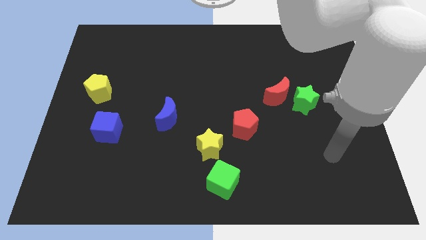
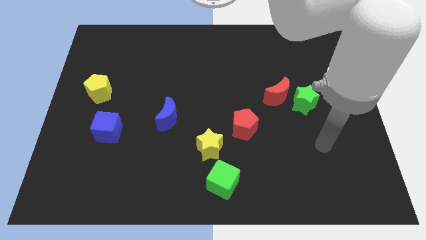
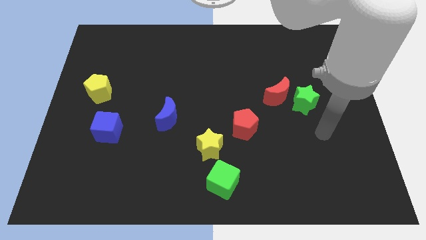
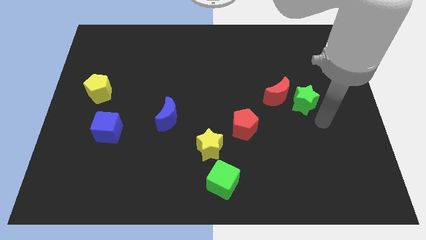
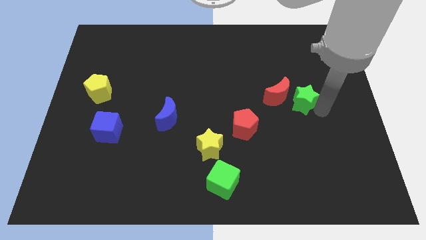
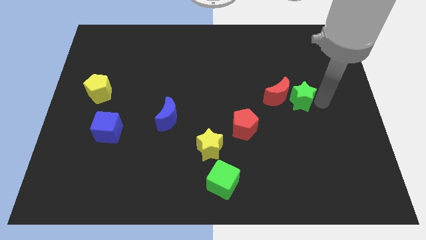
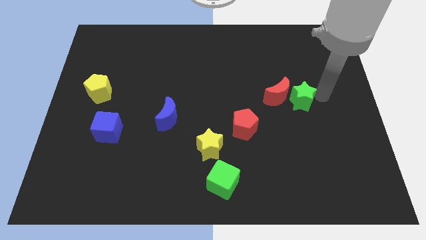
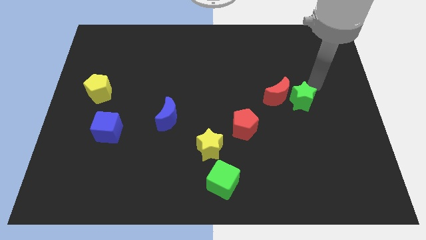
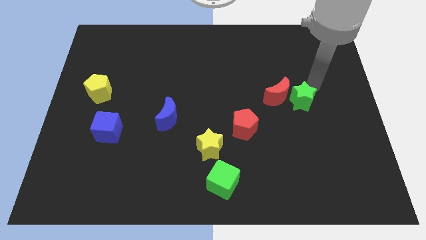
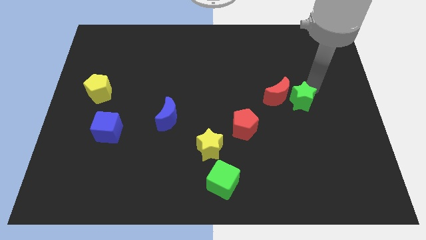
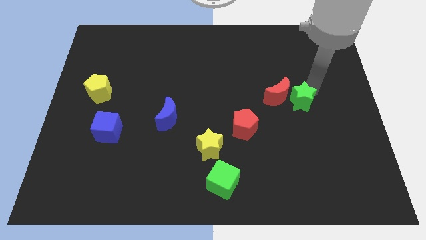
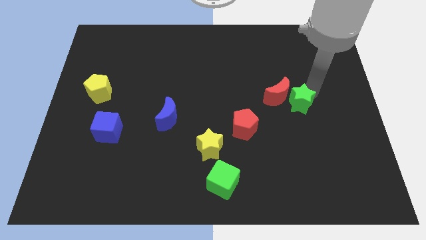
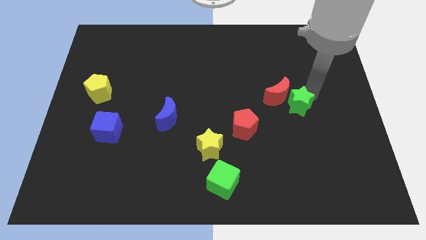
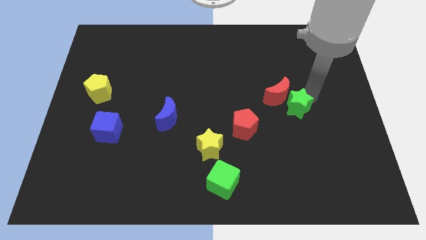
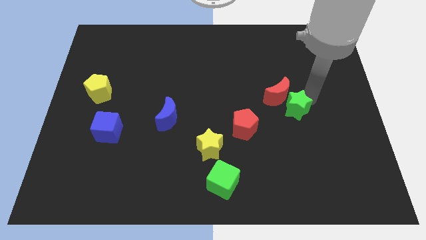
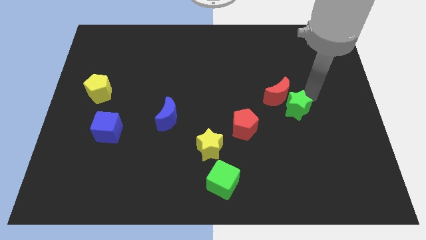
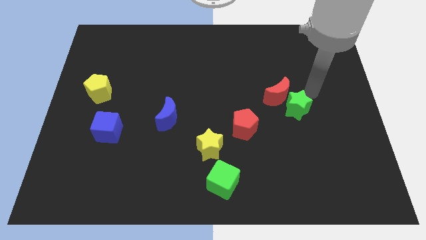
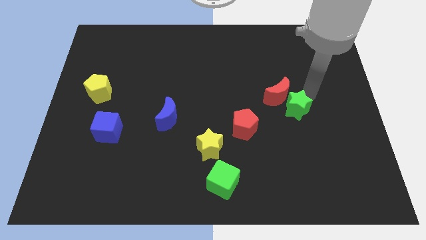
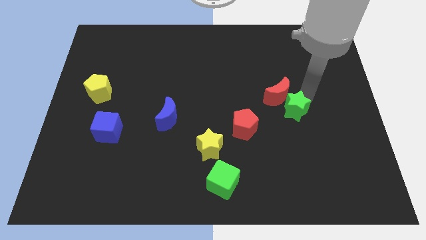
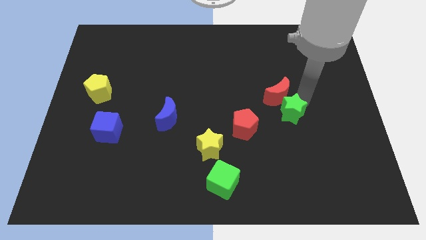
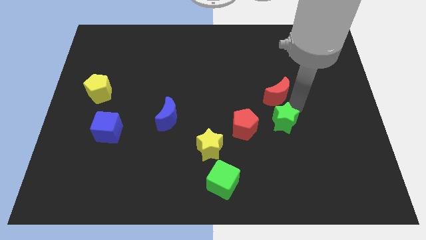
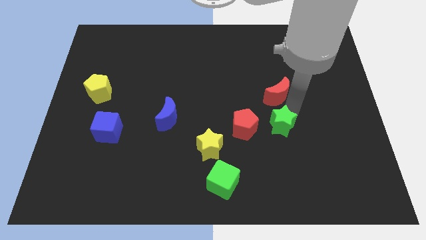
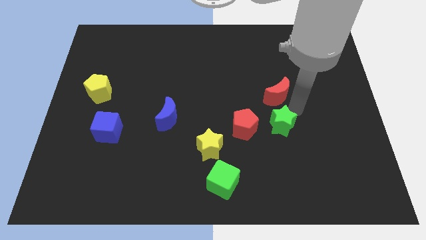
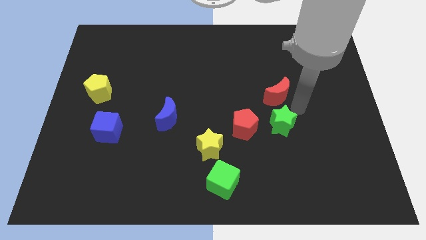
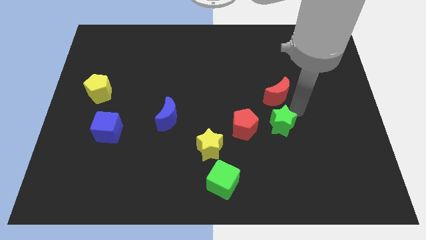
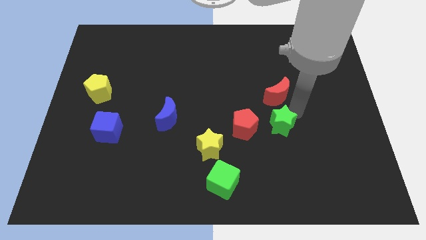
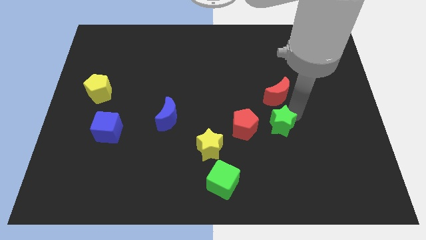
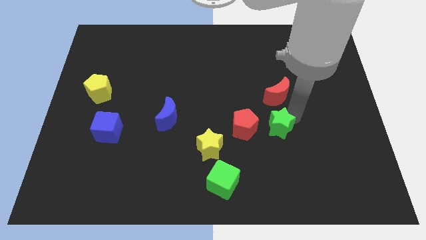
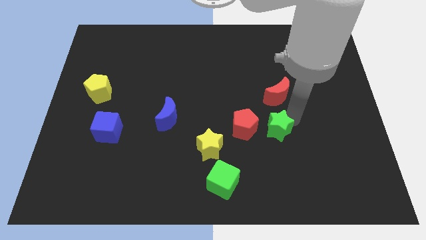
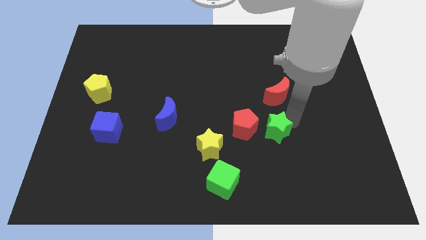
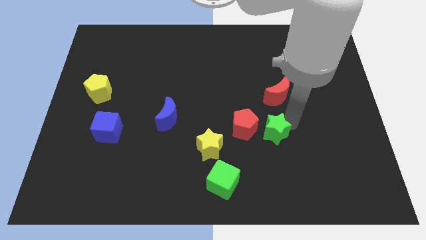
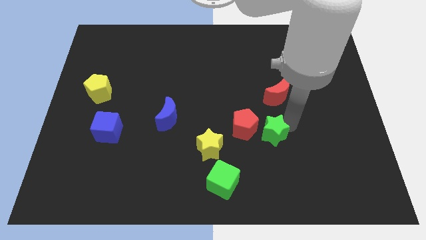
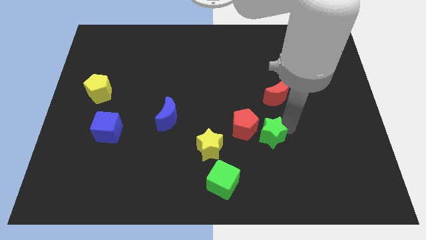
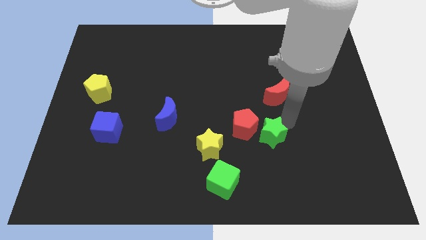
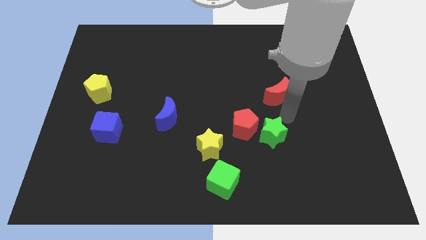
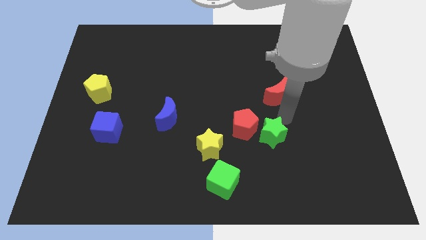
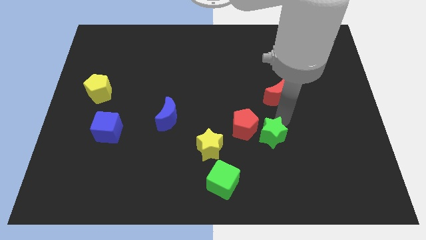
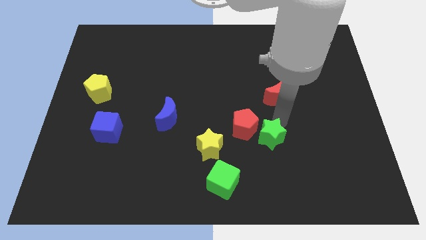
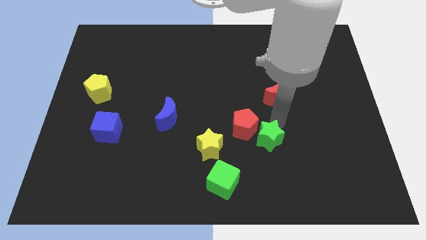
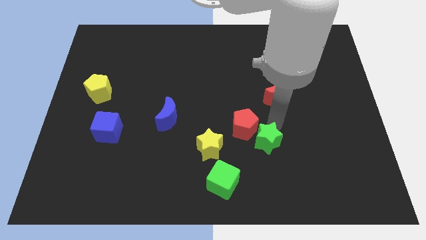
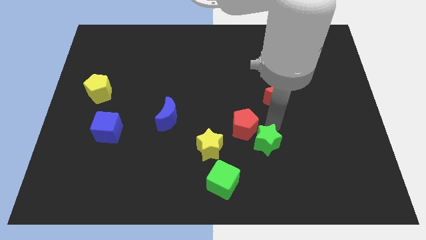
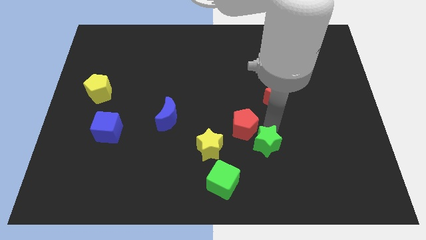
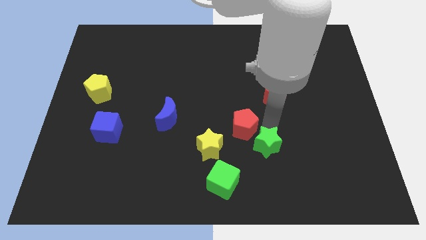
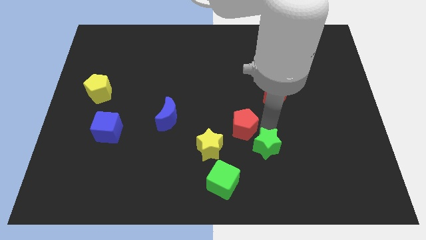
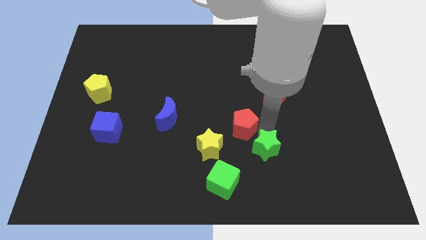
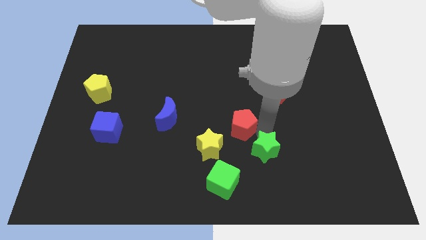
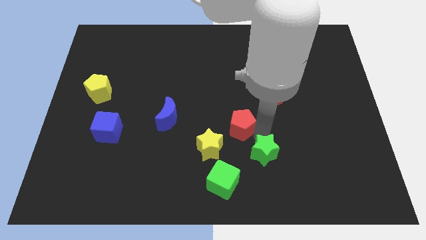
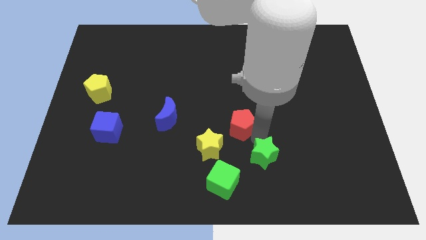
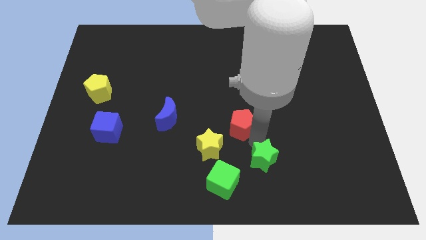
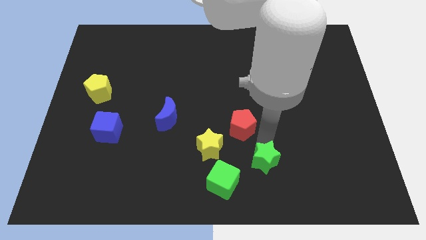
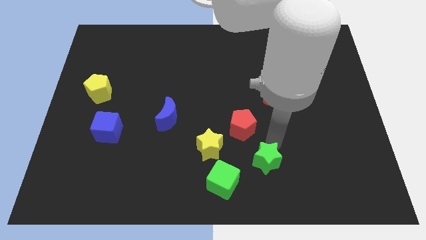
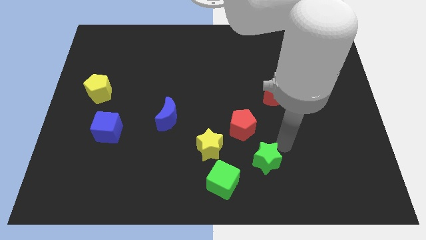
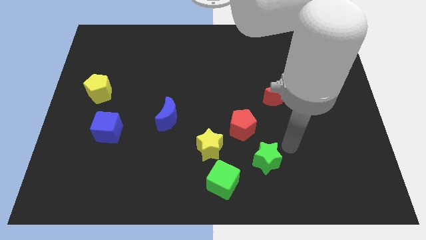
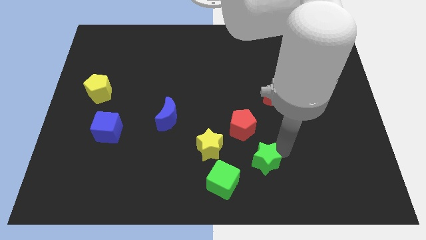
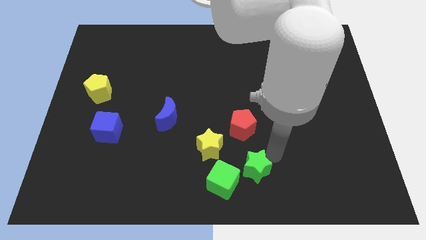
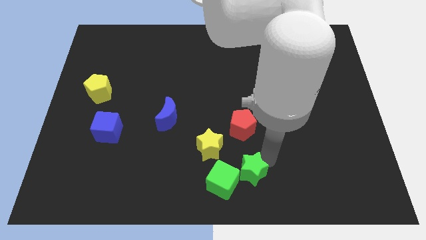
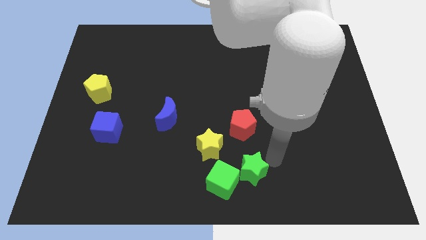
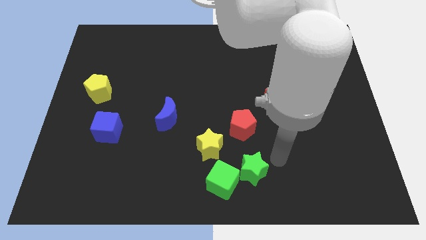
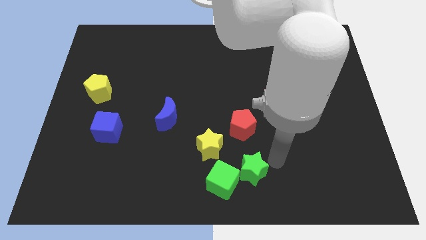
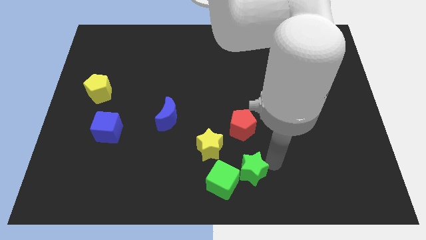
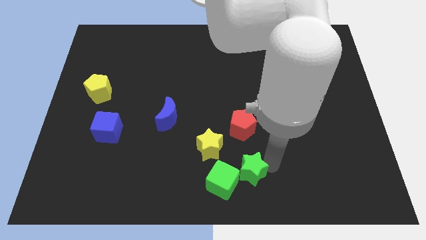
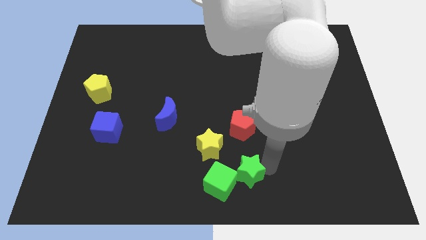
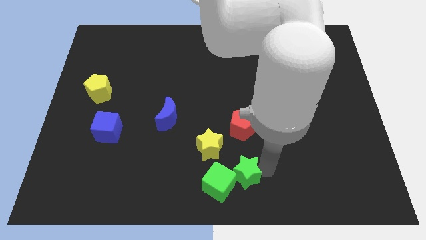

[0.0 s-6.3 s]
slide the green star next to the green cube

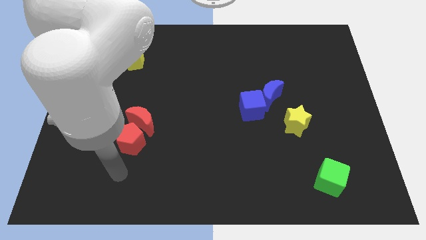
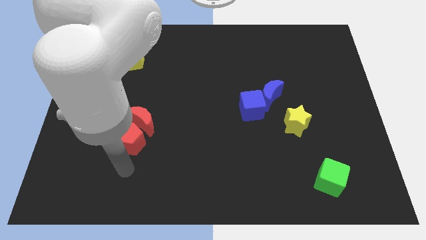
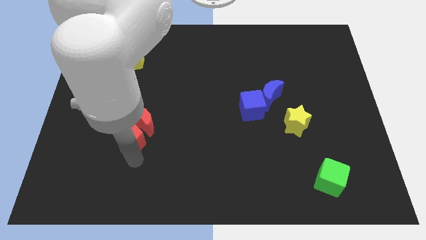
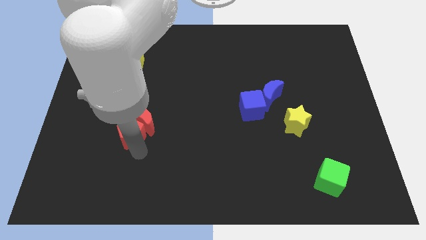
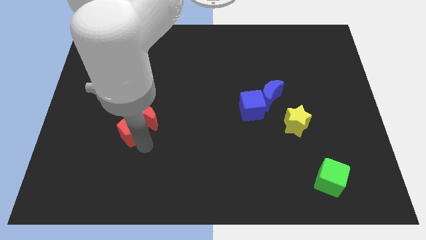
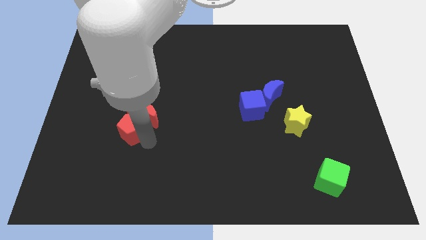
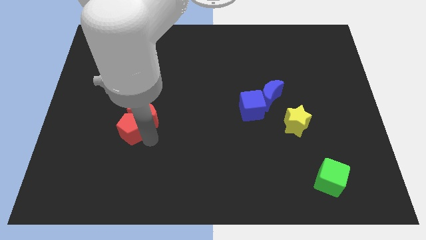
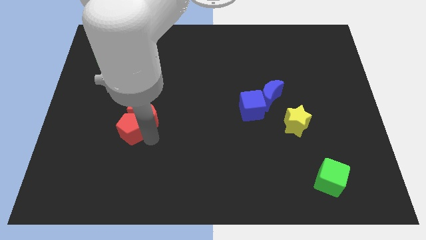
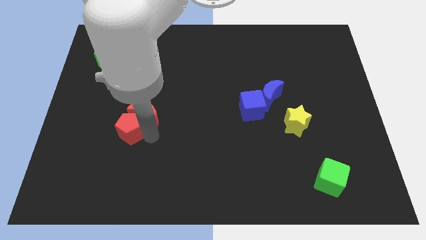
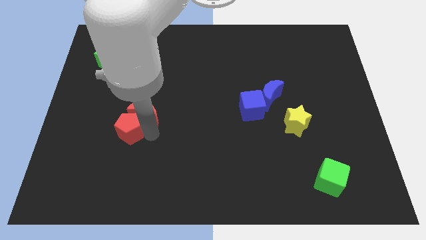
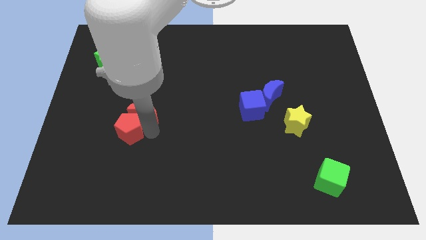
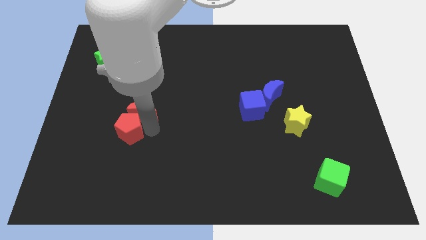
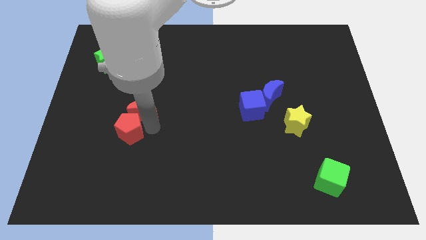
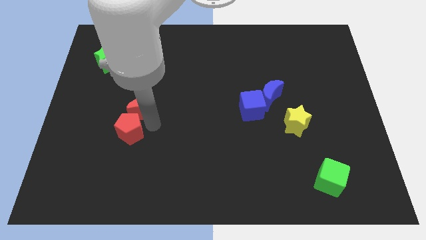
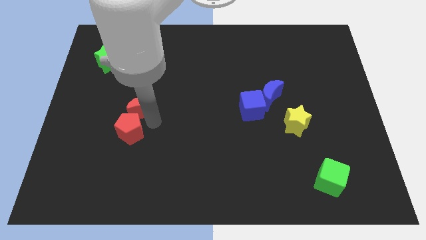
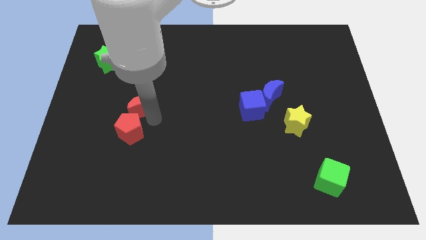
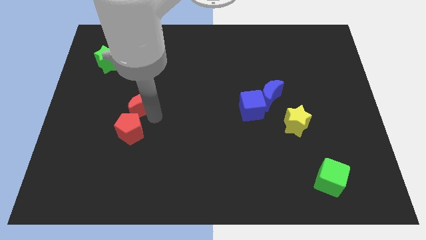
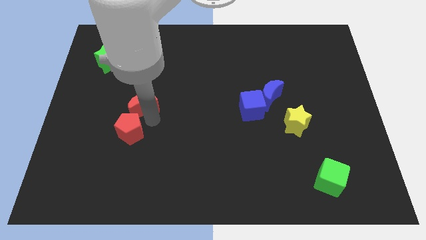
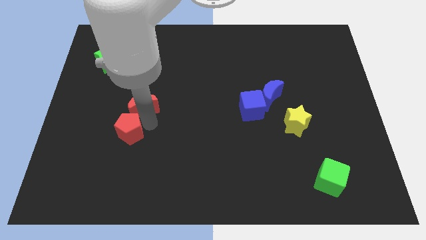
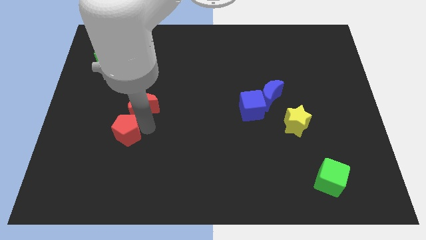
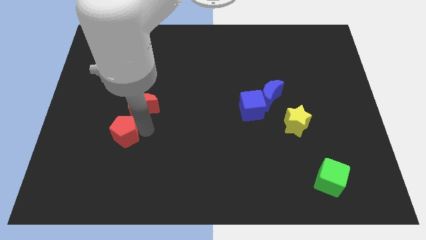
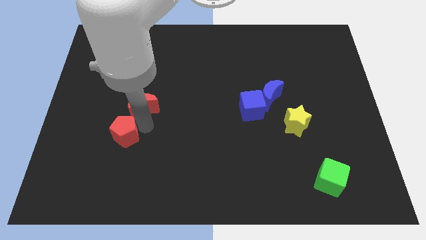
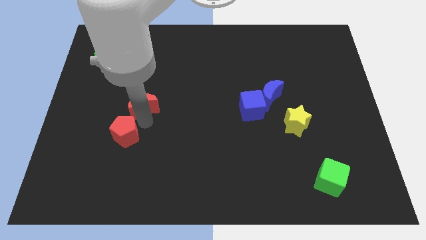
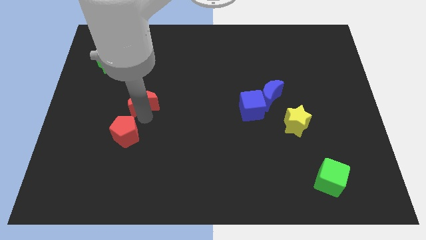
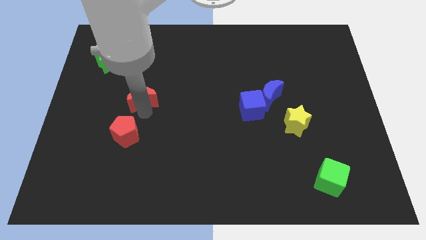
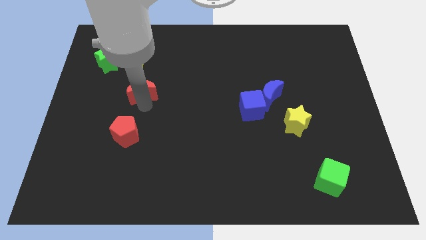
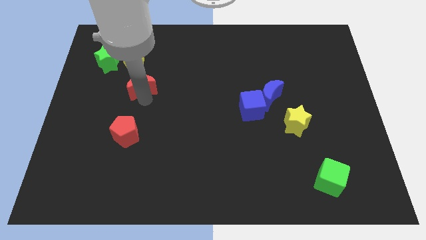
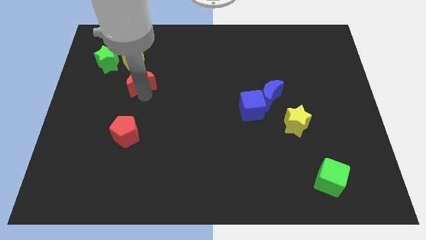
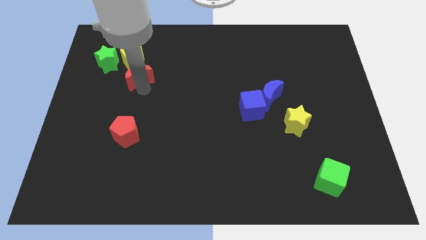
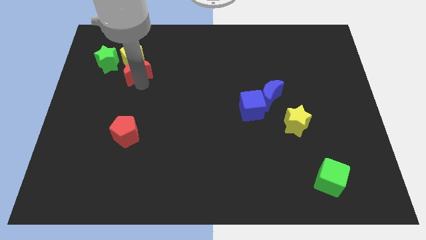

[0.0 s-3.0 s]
put the red moon to the yellow pentagon
